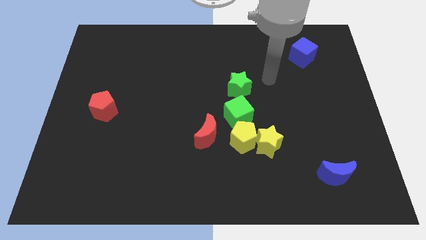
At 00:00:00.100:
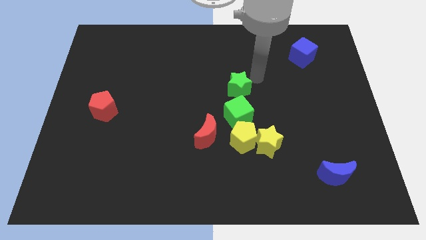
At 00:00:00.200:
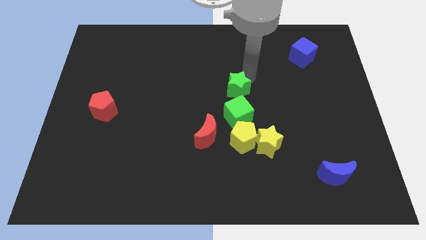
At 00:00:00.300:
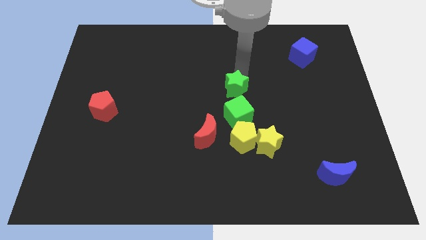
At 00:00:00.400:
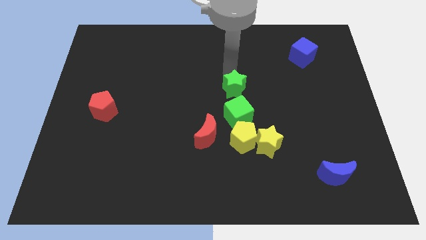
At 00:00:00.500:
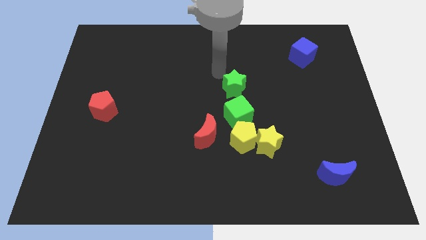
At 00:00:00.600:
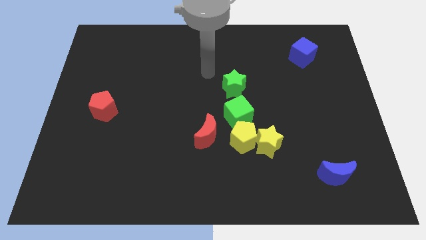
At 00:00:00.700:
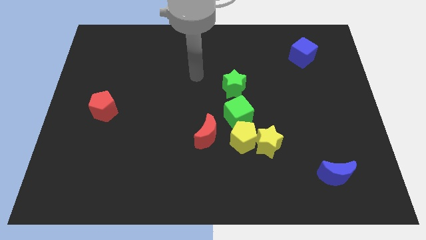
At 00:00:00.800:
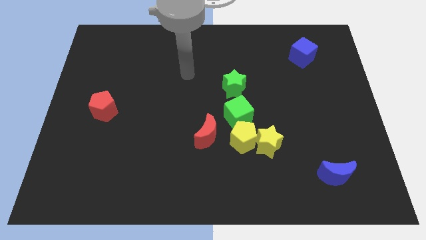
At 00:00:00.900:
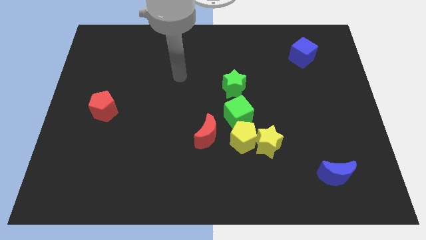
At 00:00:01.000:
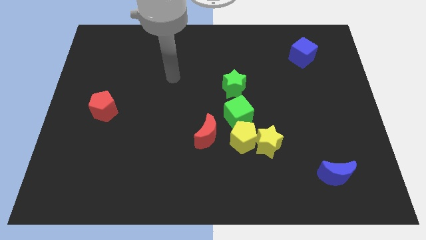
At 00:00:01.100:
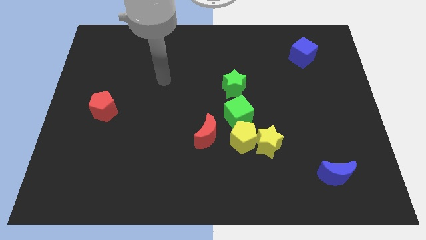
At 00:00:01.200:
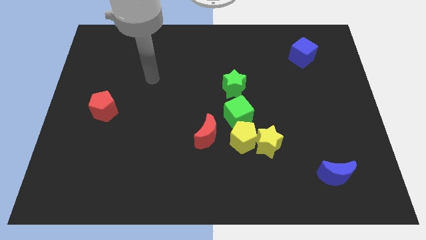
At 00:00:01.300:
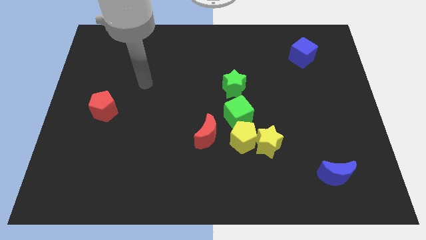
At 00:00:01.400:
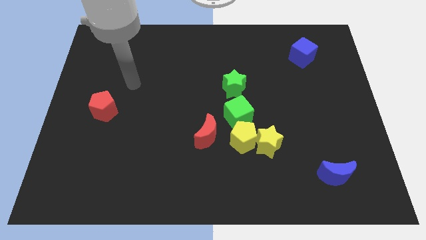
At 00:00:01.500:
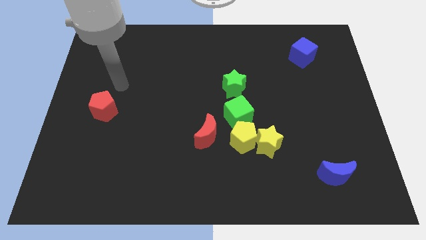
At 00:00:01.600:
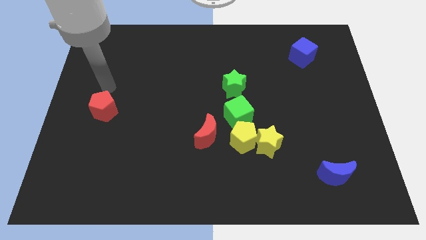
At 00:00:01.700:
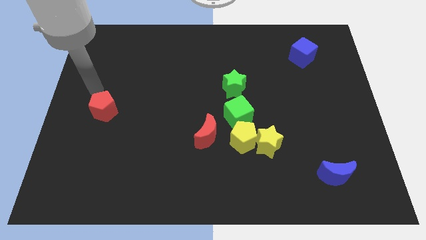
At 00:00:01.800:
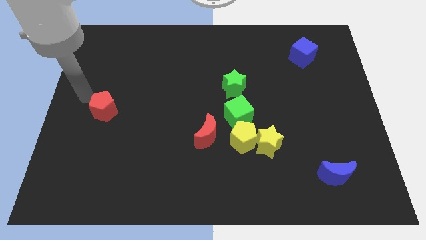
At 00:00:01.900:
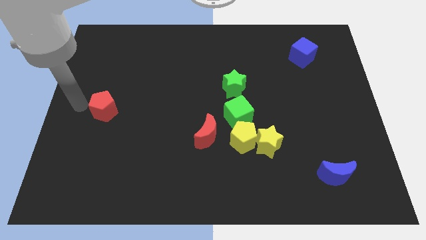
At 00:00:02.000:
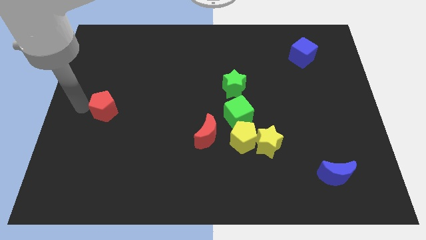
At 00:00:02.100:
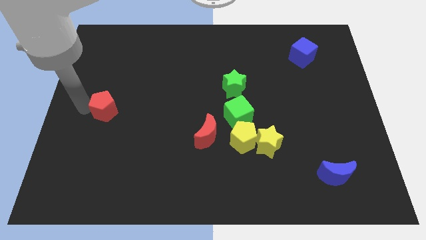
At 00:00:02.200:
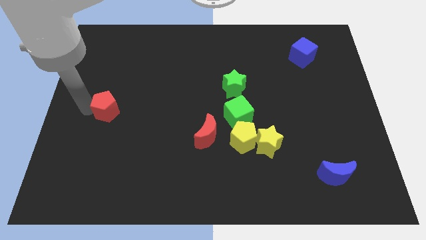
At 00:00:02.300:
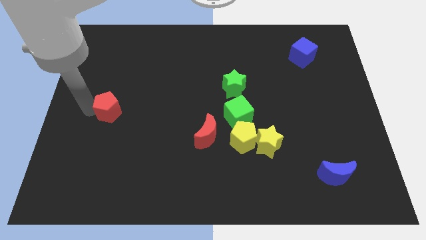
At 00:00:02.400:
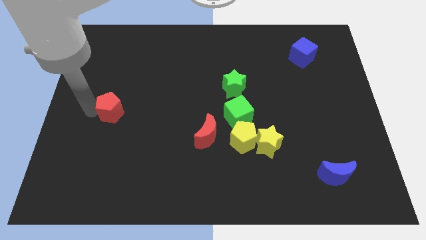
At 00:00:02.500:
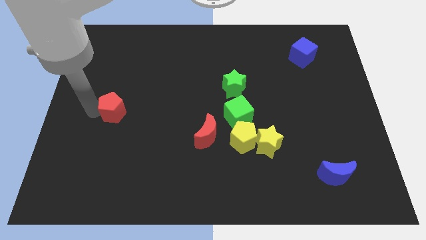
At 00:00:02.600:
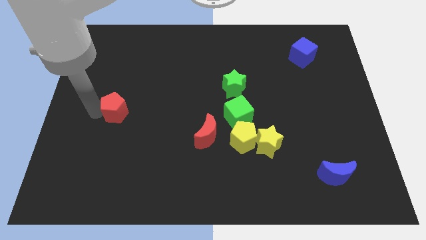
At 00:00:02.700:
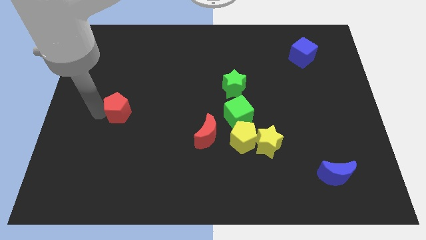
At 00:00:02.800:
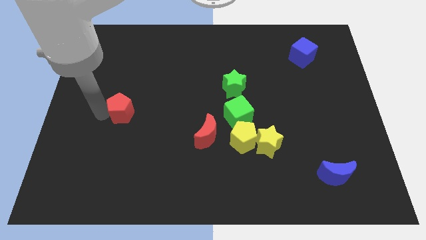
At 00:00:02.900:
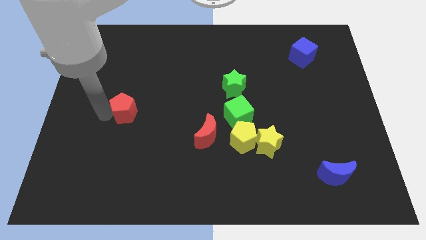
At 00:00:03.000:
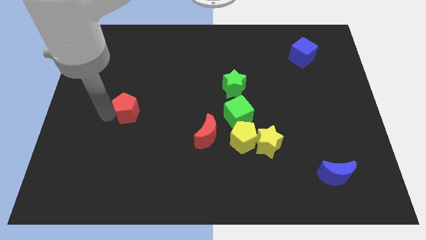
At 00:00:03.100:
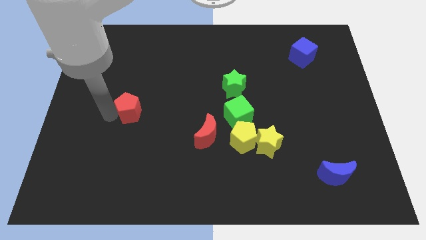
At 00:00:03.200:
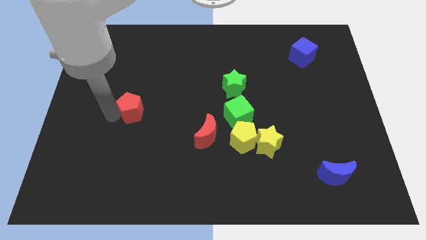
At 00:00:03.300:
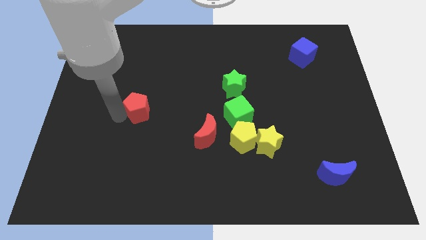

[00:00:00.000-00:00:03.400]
push the red pentagon a little to the right

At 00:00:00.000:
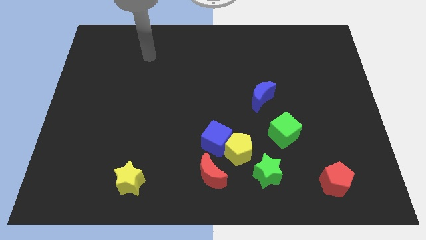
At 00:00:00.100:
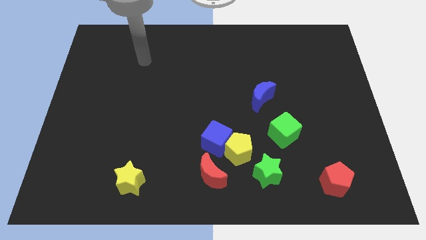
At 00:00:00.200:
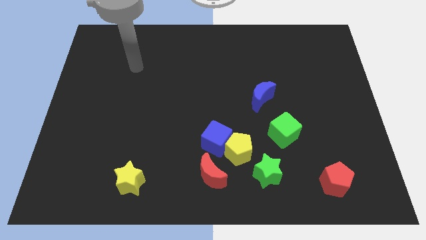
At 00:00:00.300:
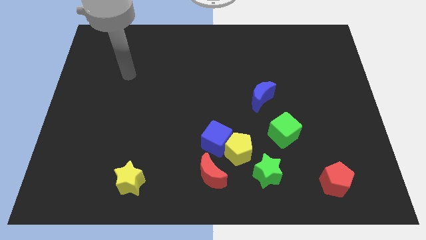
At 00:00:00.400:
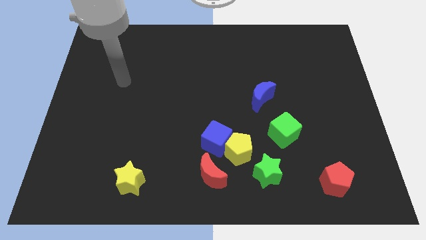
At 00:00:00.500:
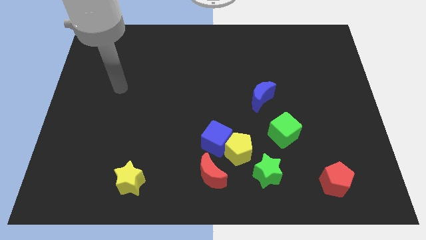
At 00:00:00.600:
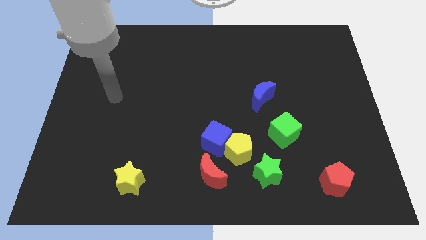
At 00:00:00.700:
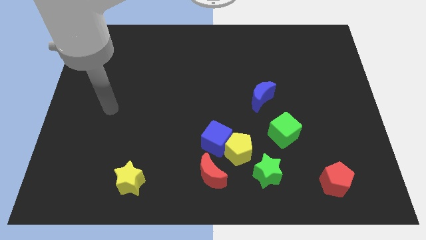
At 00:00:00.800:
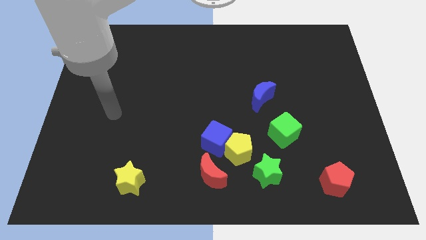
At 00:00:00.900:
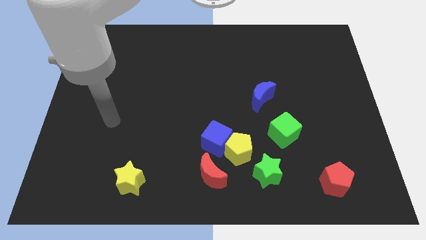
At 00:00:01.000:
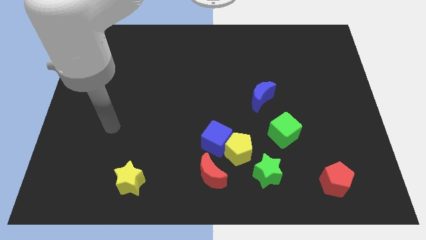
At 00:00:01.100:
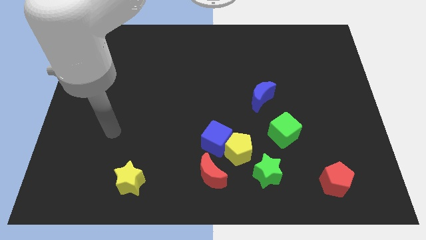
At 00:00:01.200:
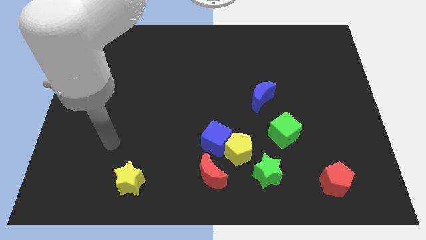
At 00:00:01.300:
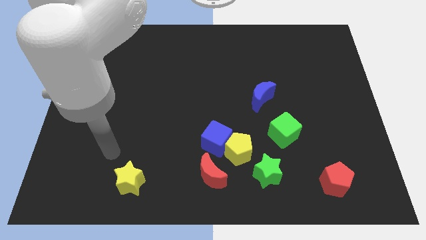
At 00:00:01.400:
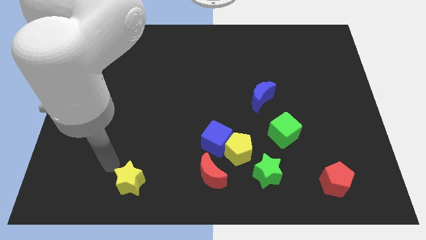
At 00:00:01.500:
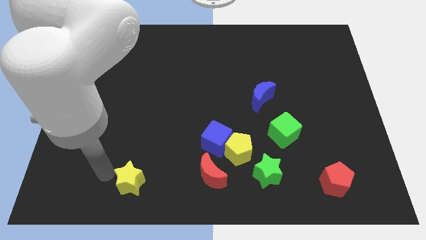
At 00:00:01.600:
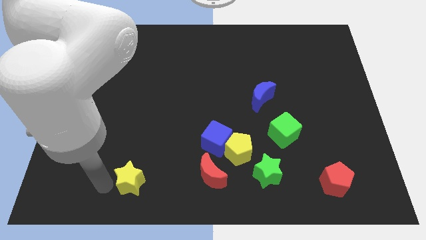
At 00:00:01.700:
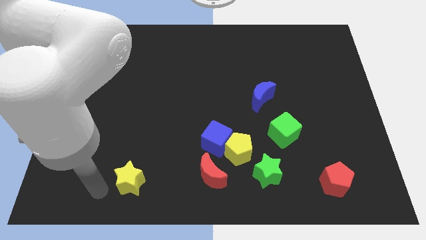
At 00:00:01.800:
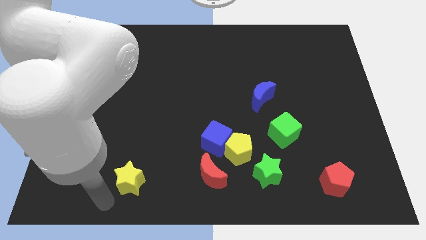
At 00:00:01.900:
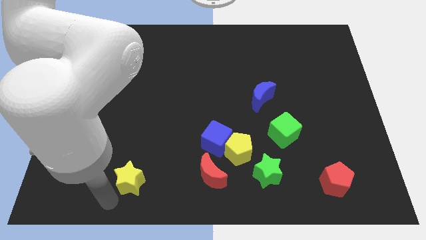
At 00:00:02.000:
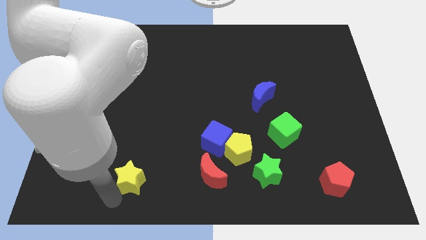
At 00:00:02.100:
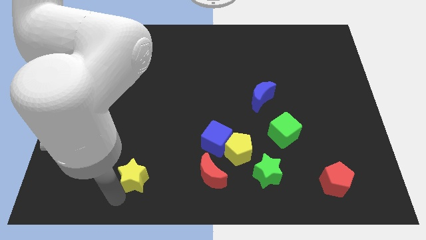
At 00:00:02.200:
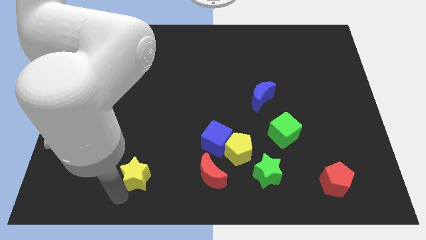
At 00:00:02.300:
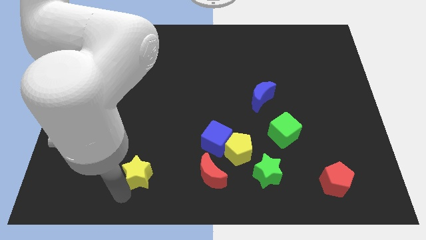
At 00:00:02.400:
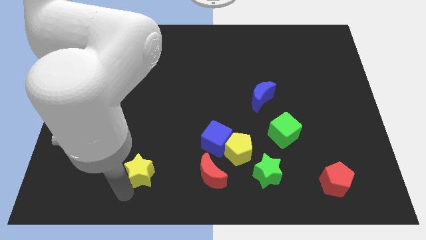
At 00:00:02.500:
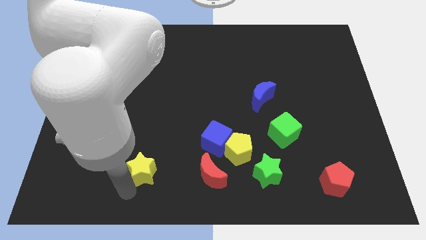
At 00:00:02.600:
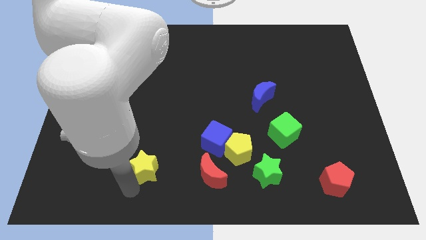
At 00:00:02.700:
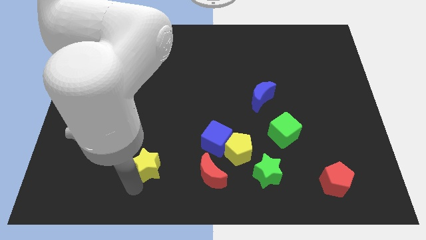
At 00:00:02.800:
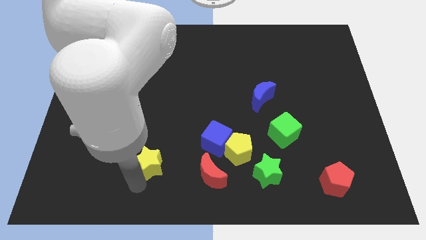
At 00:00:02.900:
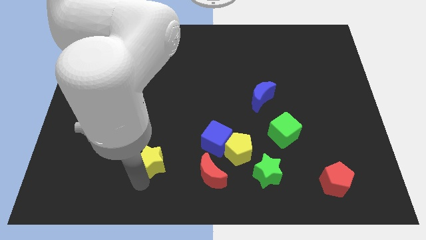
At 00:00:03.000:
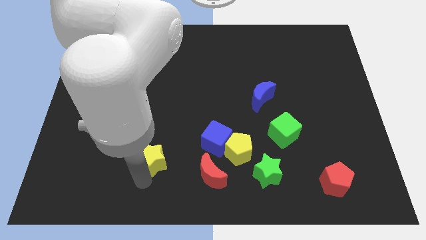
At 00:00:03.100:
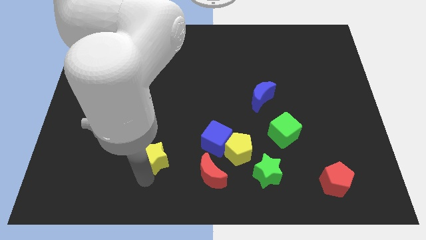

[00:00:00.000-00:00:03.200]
slightly slide the yellow star upwards and right diagonally

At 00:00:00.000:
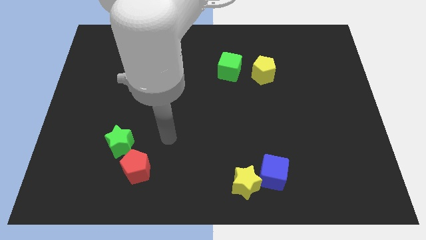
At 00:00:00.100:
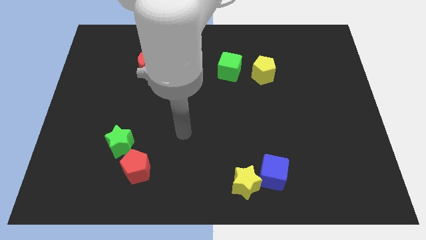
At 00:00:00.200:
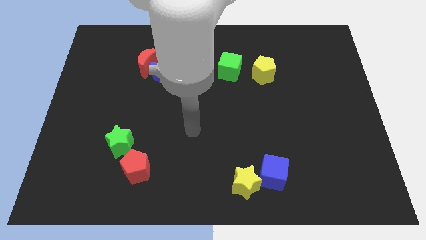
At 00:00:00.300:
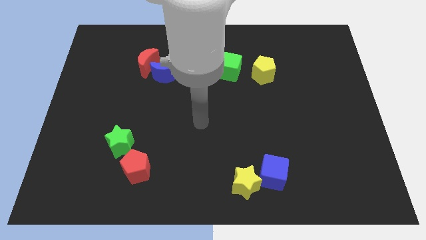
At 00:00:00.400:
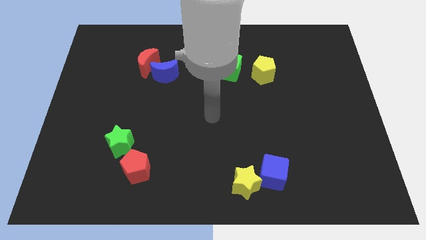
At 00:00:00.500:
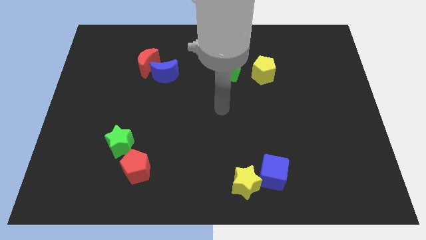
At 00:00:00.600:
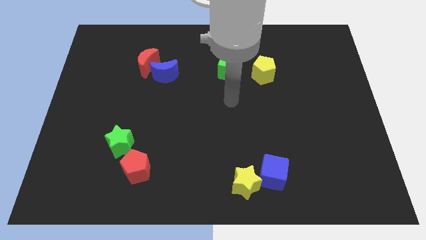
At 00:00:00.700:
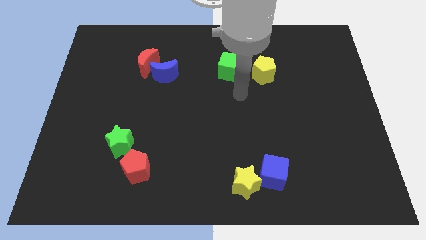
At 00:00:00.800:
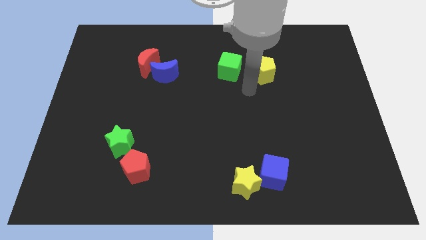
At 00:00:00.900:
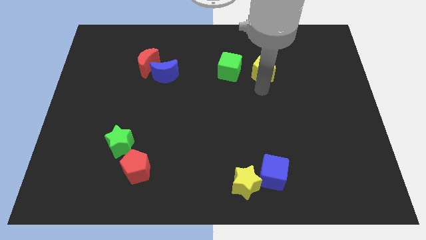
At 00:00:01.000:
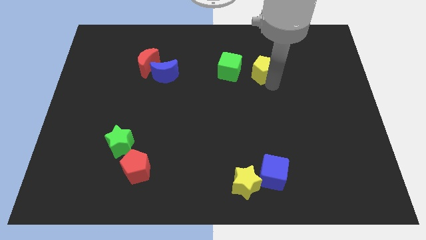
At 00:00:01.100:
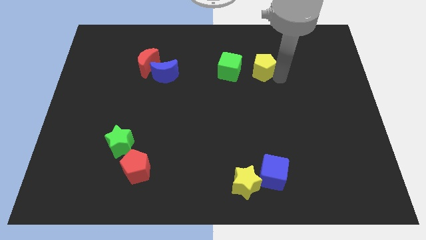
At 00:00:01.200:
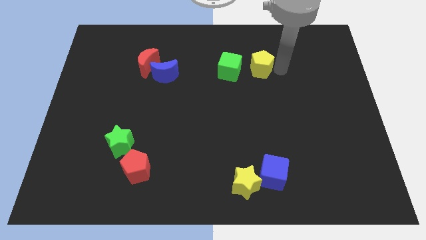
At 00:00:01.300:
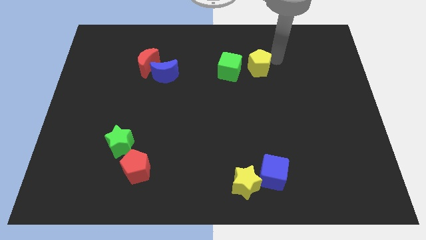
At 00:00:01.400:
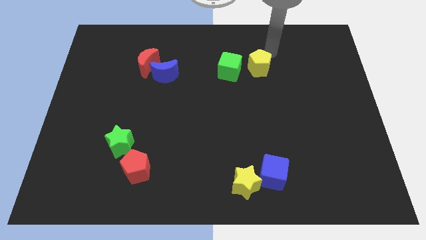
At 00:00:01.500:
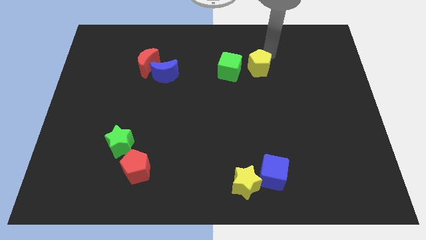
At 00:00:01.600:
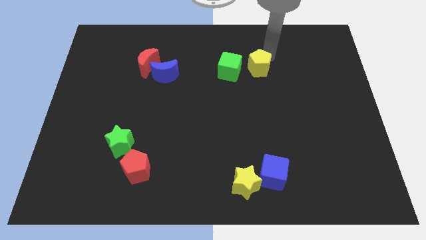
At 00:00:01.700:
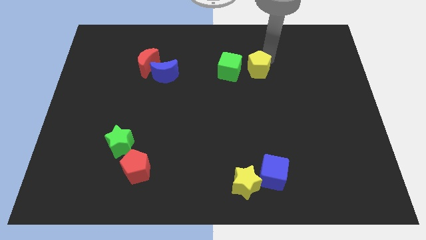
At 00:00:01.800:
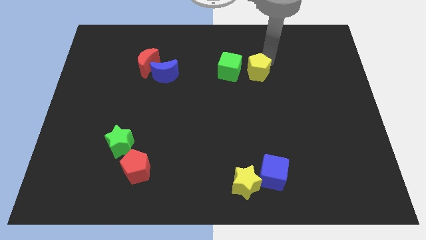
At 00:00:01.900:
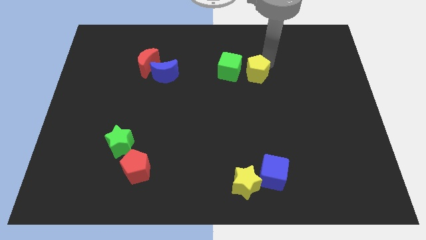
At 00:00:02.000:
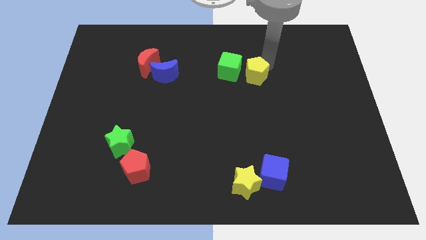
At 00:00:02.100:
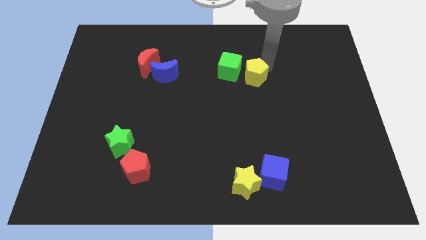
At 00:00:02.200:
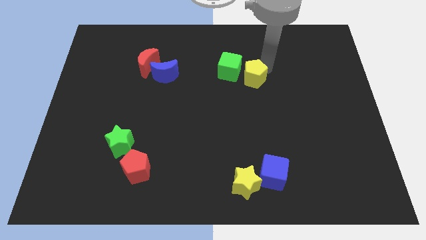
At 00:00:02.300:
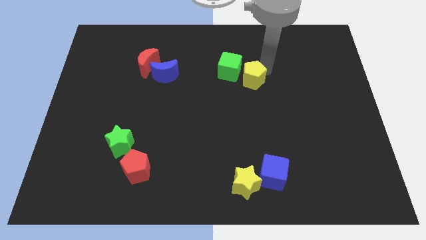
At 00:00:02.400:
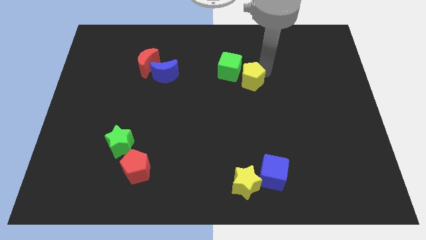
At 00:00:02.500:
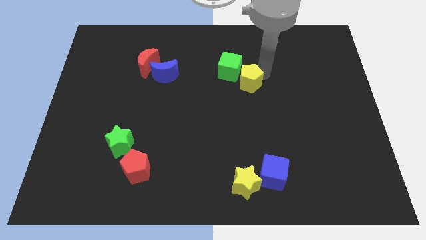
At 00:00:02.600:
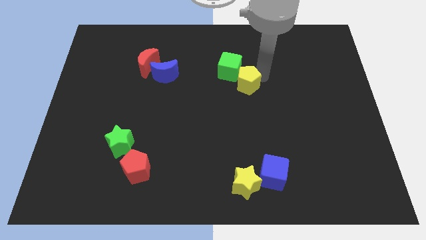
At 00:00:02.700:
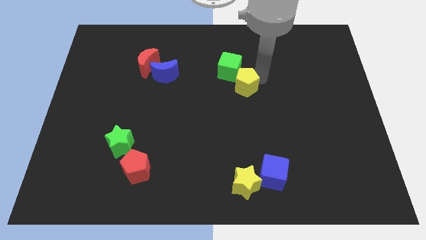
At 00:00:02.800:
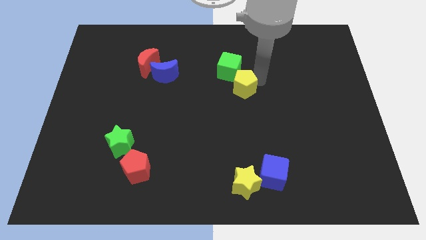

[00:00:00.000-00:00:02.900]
slightly push the yellow pentagon downwards and left
